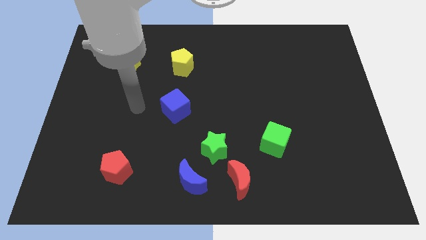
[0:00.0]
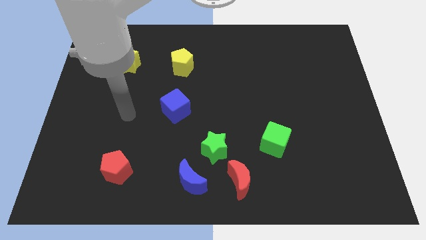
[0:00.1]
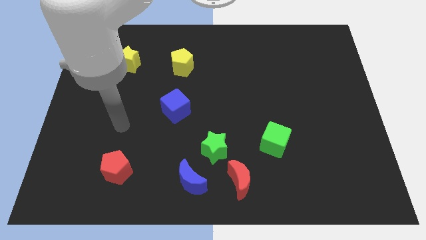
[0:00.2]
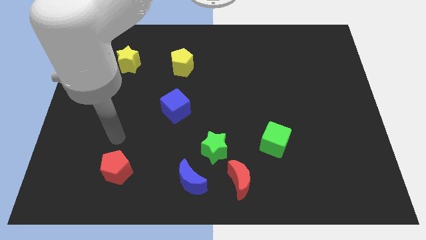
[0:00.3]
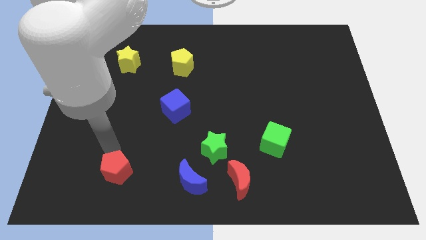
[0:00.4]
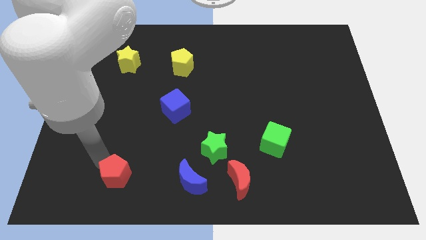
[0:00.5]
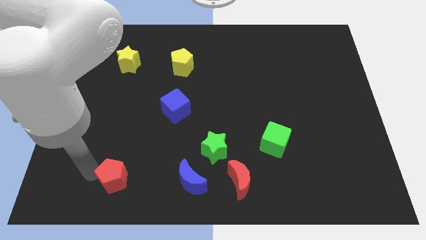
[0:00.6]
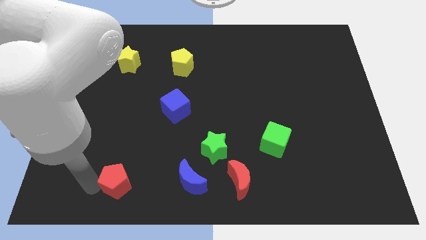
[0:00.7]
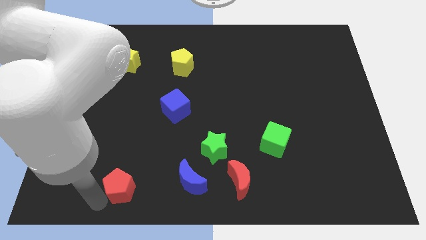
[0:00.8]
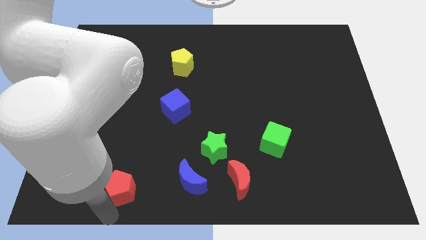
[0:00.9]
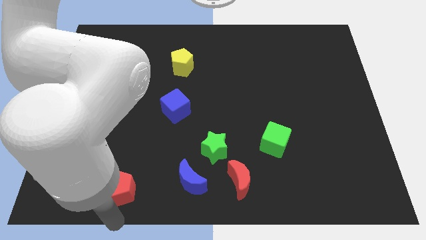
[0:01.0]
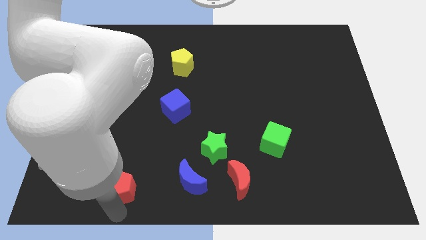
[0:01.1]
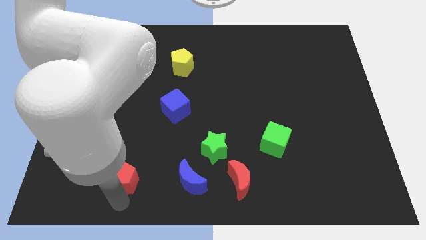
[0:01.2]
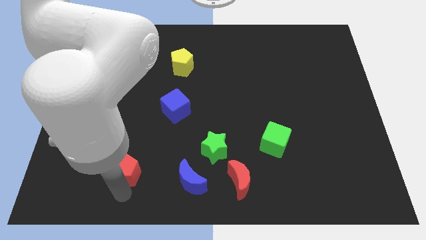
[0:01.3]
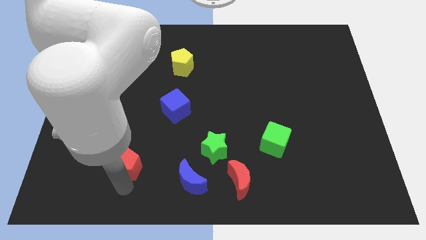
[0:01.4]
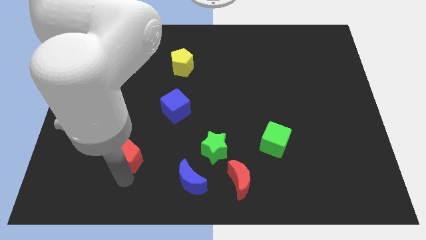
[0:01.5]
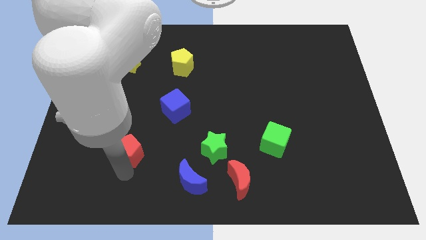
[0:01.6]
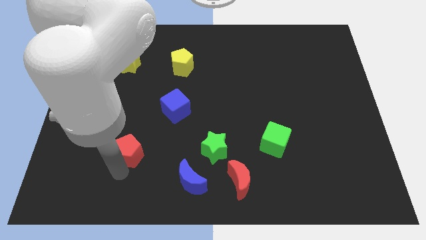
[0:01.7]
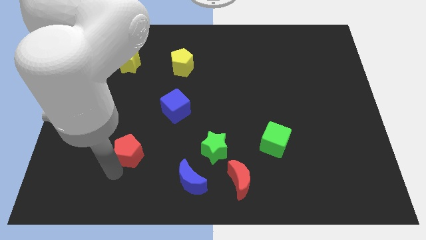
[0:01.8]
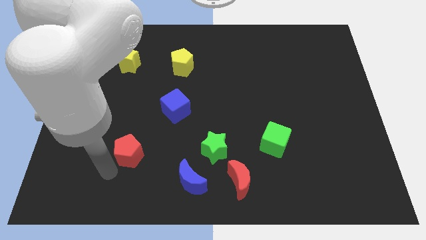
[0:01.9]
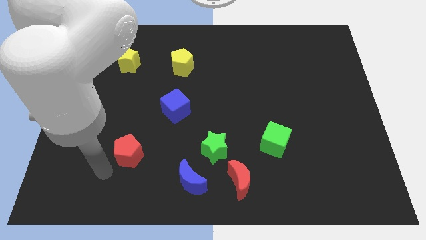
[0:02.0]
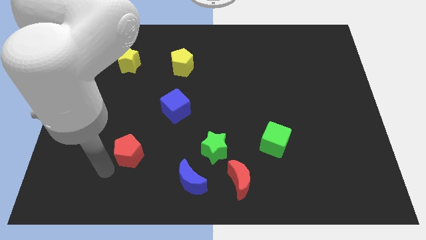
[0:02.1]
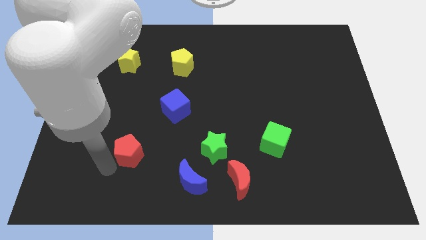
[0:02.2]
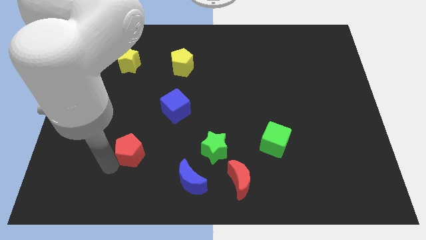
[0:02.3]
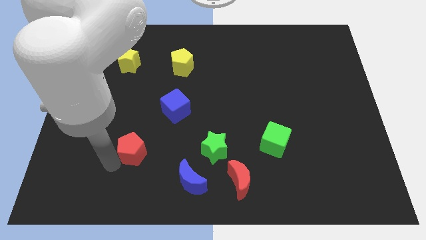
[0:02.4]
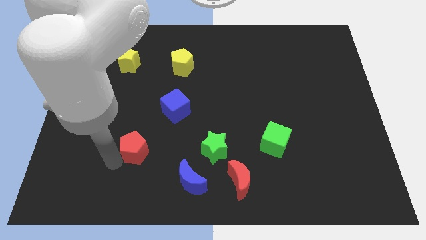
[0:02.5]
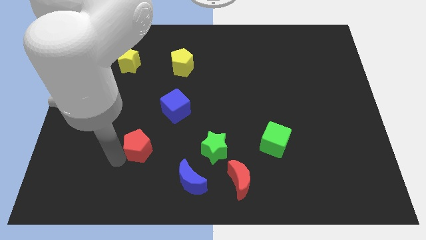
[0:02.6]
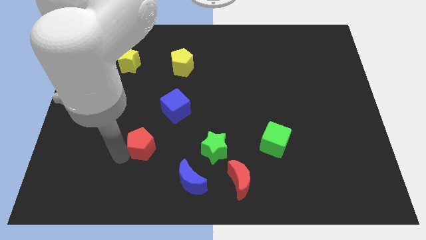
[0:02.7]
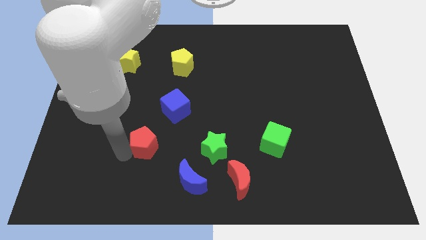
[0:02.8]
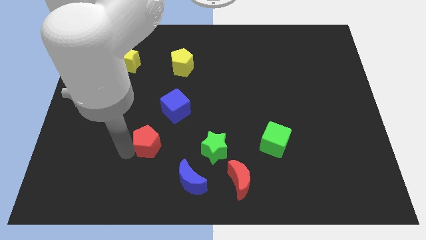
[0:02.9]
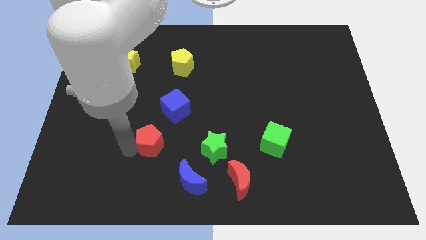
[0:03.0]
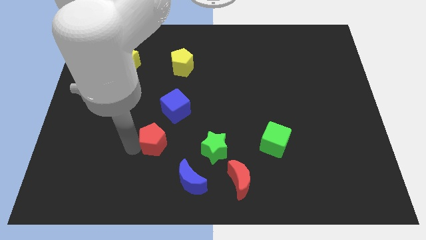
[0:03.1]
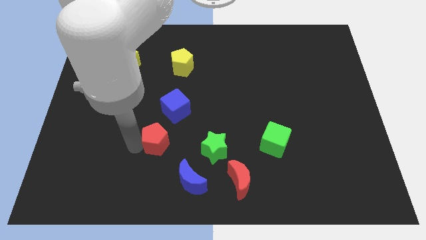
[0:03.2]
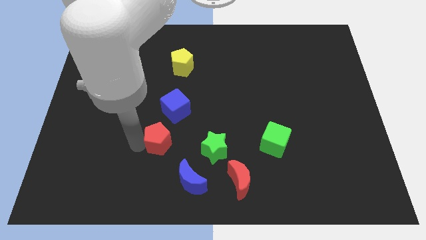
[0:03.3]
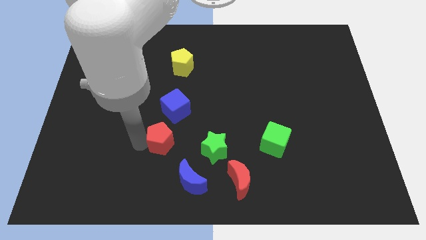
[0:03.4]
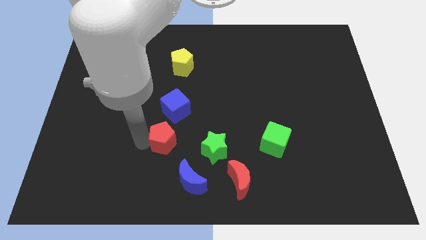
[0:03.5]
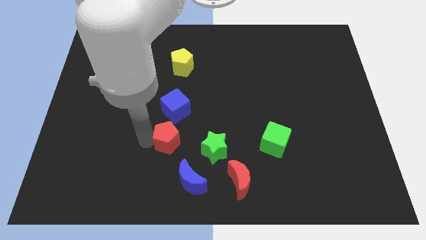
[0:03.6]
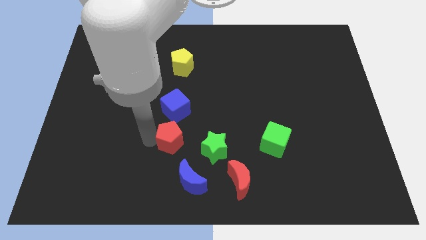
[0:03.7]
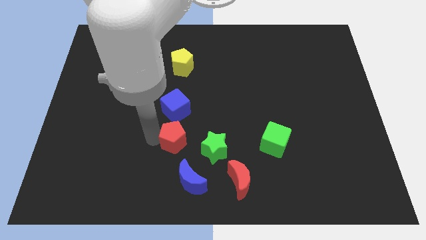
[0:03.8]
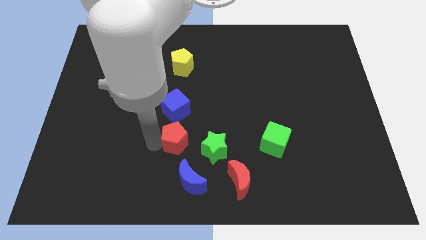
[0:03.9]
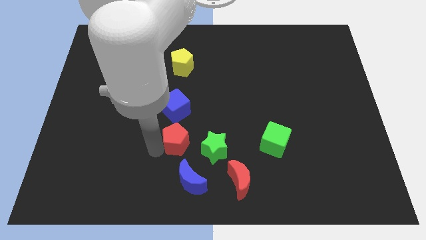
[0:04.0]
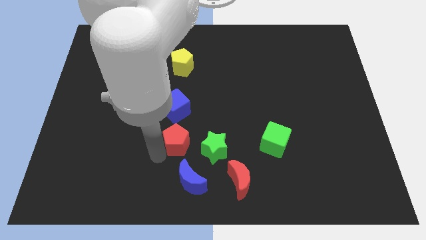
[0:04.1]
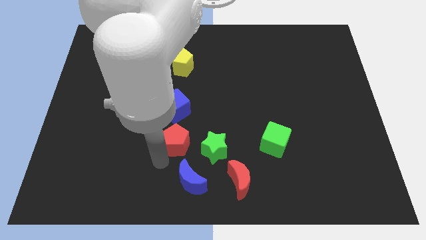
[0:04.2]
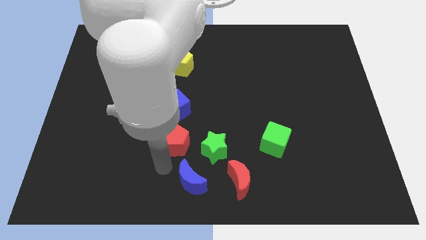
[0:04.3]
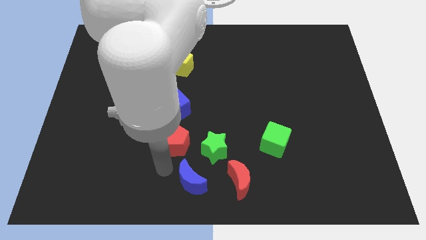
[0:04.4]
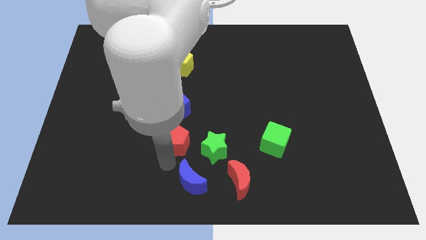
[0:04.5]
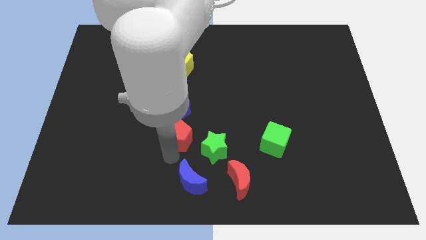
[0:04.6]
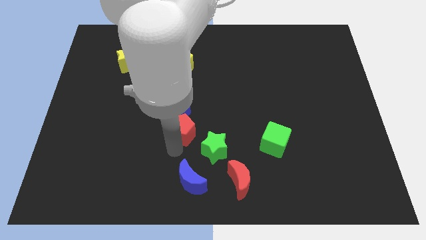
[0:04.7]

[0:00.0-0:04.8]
move the red pentagon to the center of the board

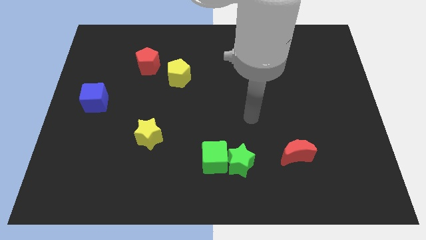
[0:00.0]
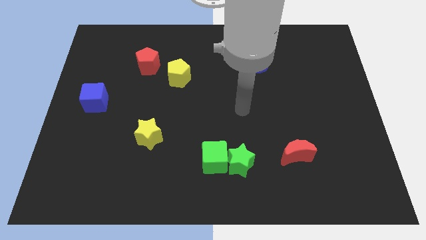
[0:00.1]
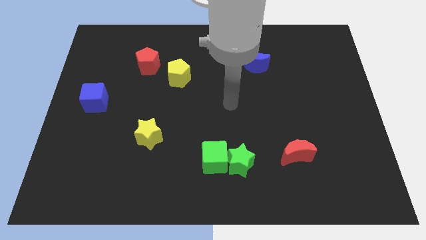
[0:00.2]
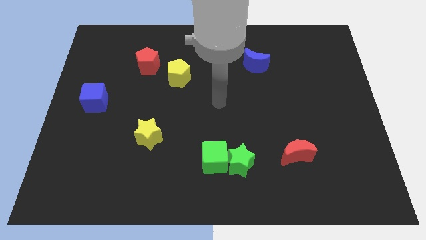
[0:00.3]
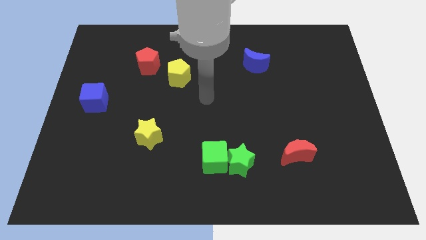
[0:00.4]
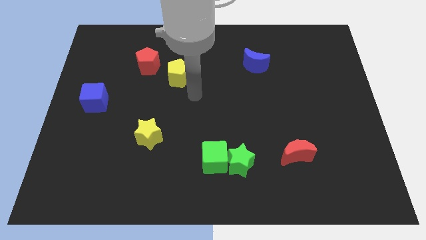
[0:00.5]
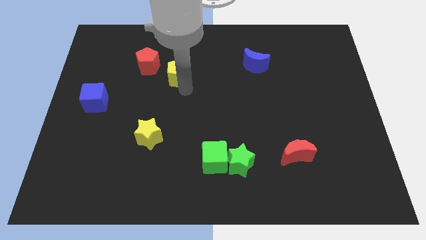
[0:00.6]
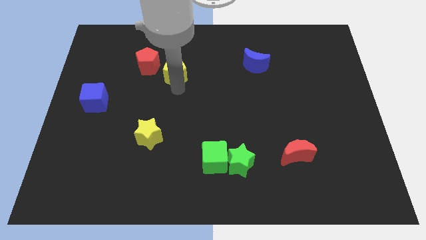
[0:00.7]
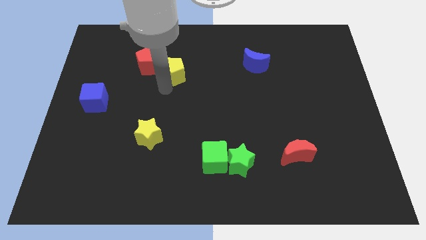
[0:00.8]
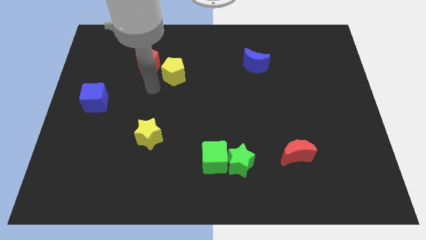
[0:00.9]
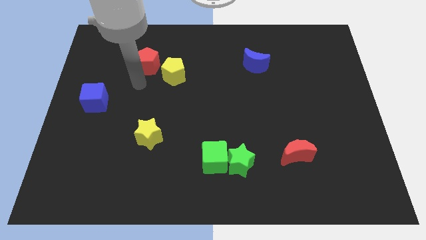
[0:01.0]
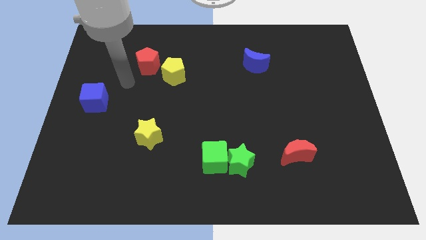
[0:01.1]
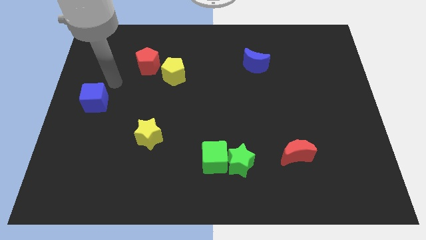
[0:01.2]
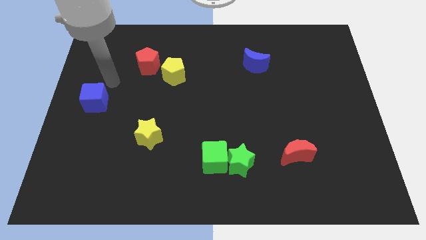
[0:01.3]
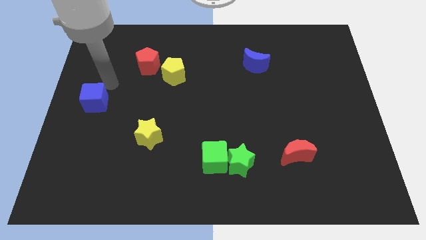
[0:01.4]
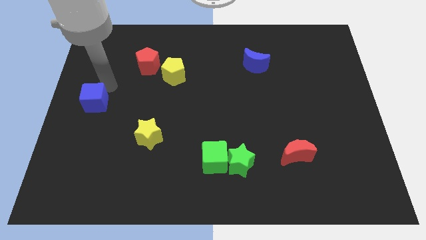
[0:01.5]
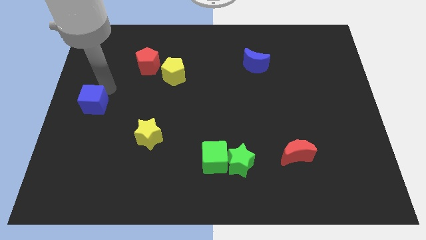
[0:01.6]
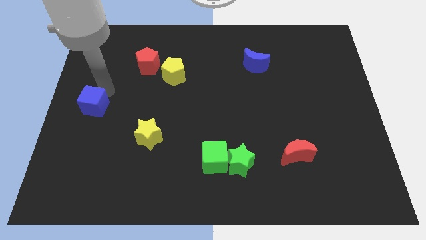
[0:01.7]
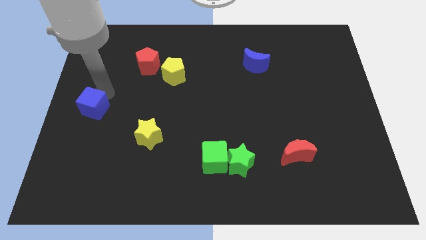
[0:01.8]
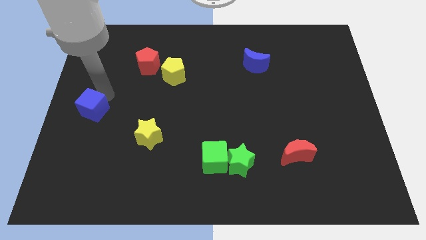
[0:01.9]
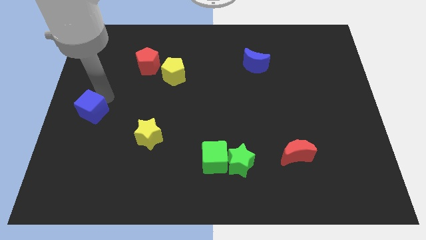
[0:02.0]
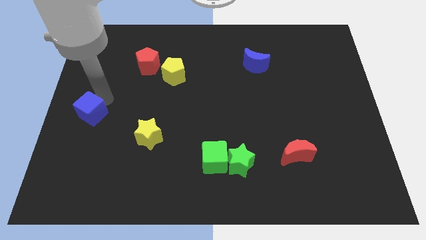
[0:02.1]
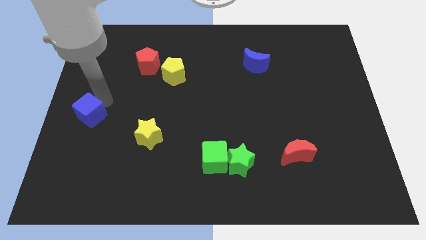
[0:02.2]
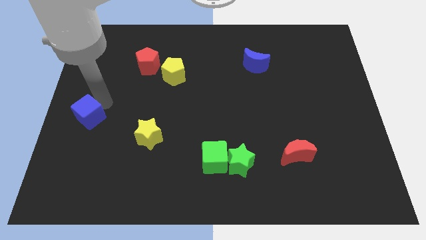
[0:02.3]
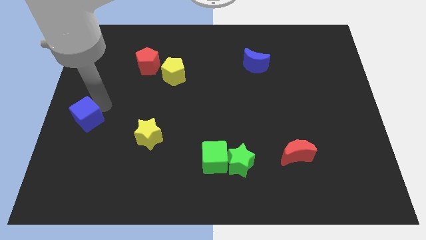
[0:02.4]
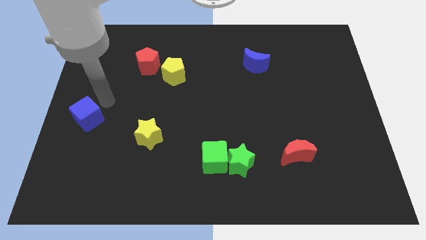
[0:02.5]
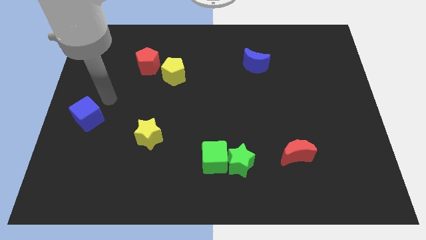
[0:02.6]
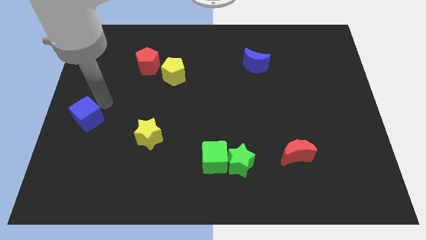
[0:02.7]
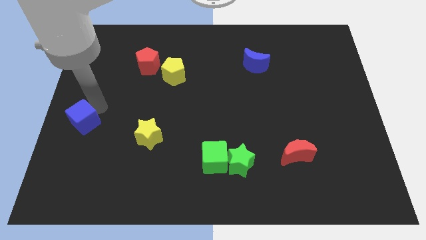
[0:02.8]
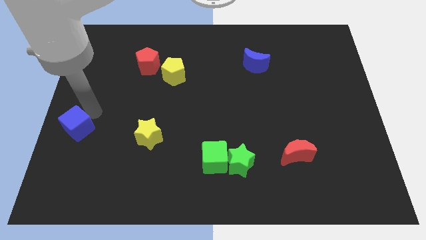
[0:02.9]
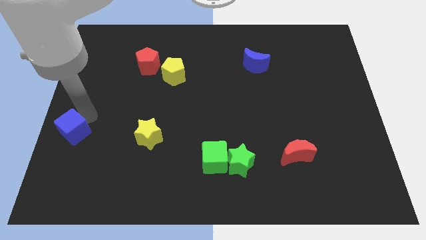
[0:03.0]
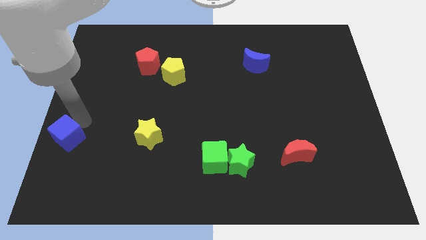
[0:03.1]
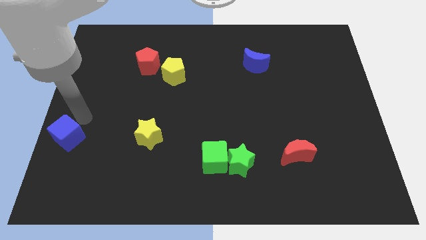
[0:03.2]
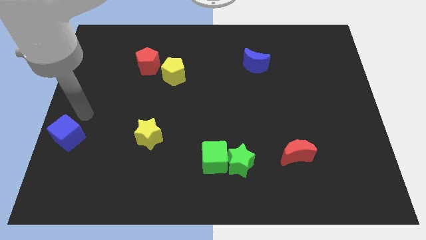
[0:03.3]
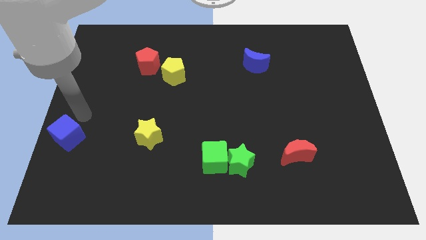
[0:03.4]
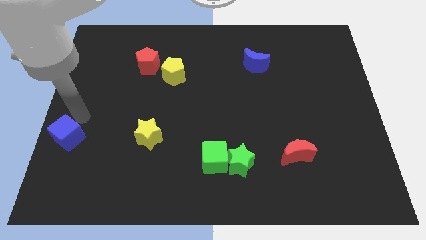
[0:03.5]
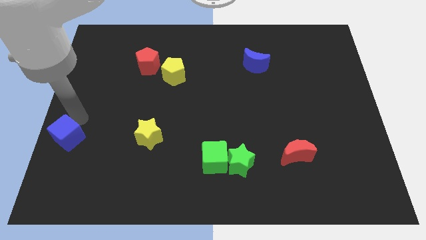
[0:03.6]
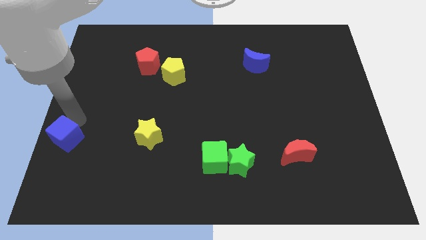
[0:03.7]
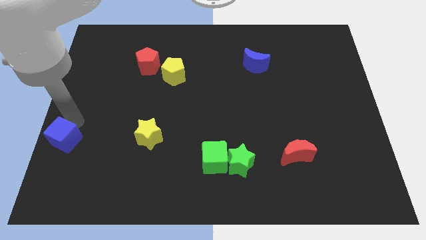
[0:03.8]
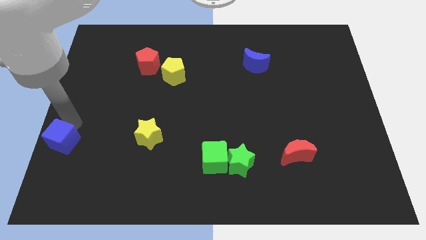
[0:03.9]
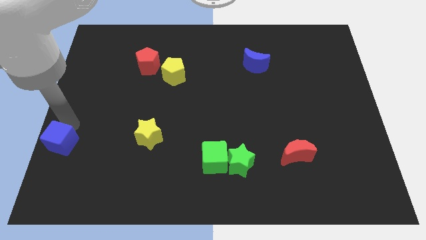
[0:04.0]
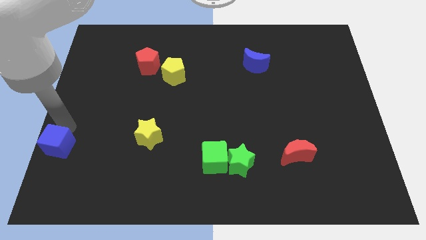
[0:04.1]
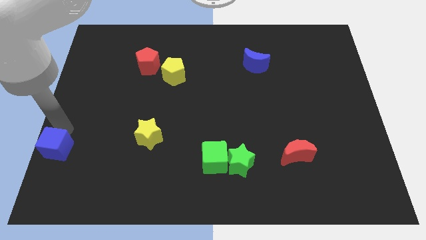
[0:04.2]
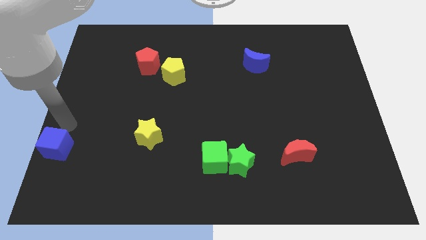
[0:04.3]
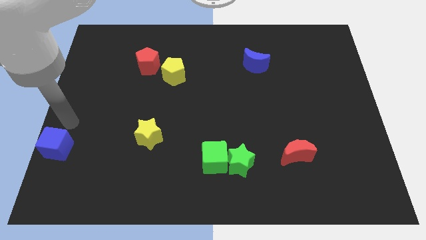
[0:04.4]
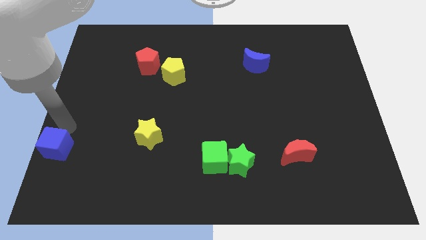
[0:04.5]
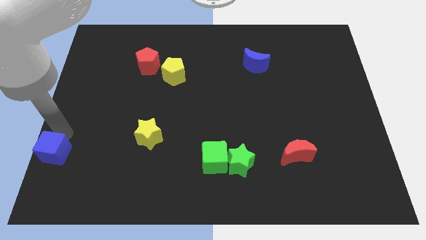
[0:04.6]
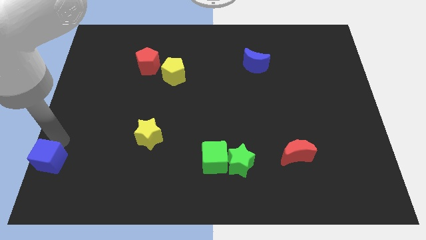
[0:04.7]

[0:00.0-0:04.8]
push the blue cube to the lower left corner
